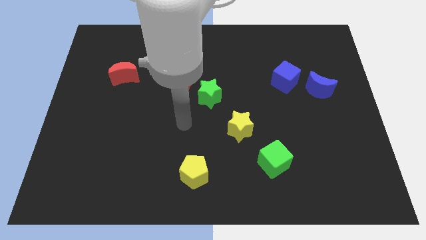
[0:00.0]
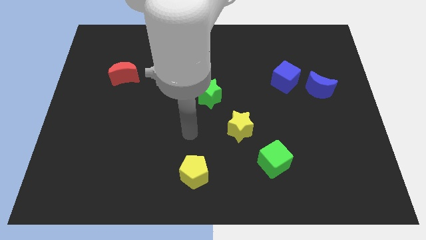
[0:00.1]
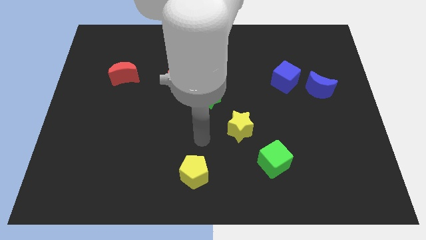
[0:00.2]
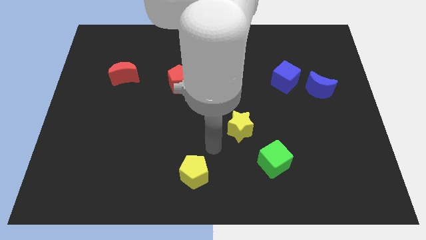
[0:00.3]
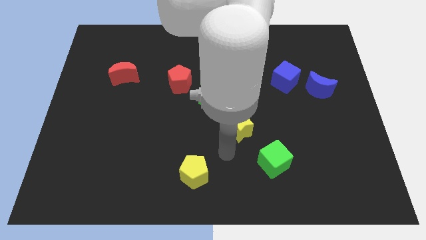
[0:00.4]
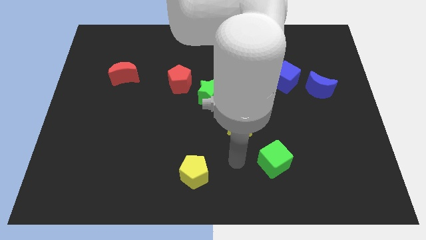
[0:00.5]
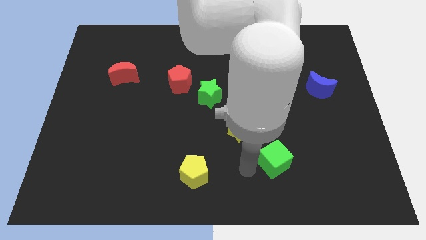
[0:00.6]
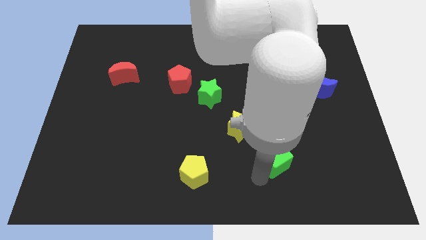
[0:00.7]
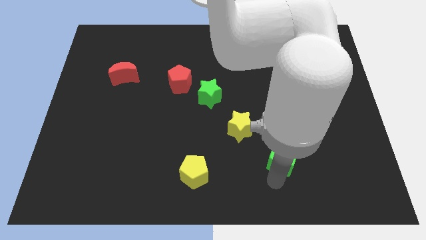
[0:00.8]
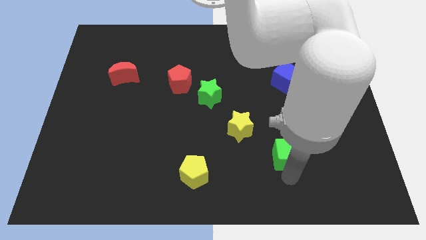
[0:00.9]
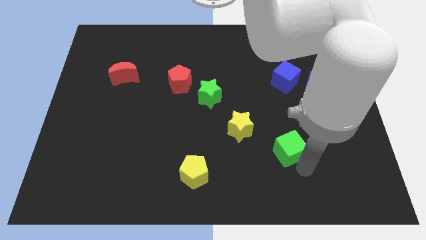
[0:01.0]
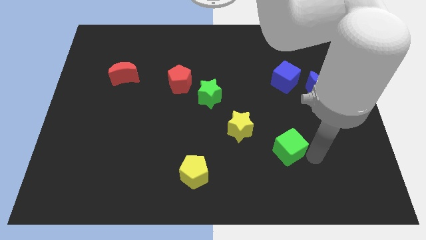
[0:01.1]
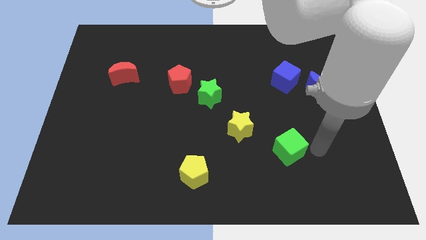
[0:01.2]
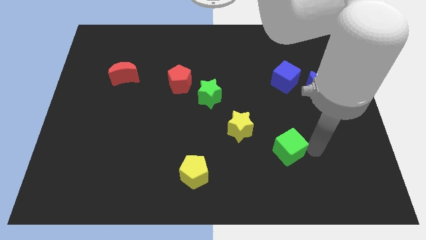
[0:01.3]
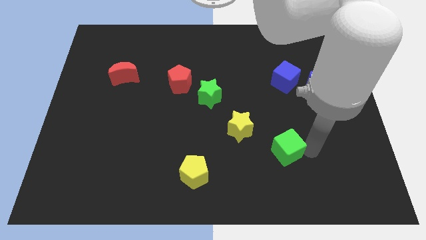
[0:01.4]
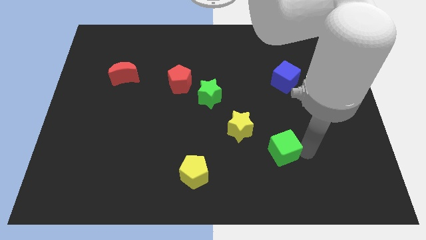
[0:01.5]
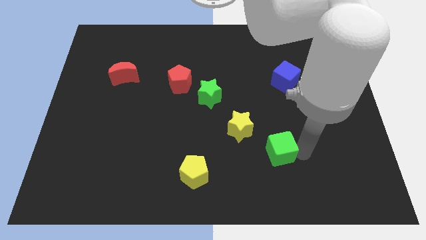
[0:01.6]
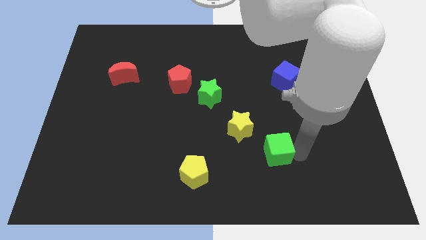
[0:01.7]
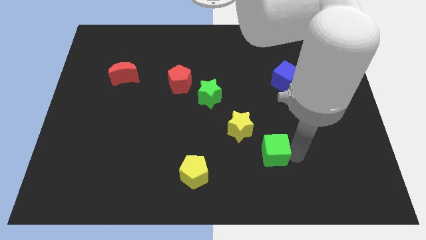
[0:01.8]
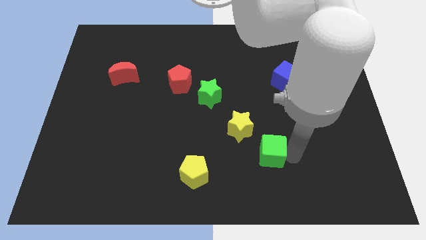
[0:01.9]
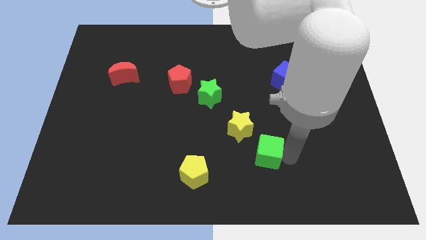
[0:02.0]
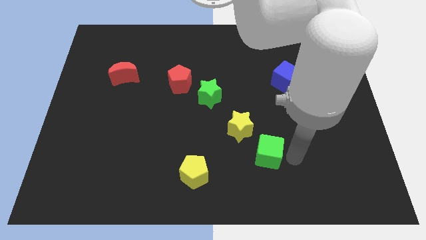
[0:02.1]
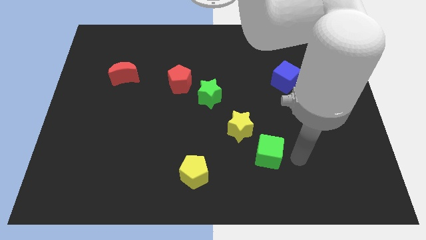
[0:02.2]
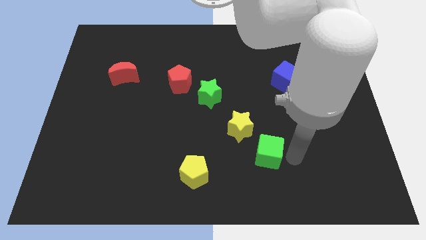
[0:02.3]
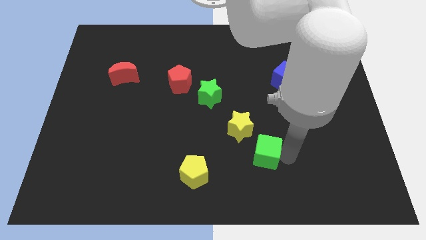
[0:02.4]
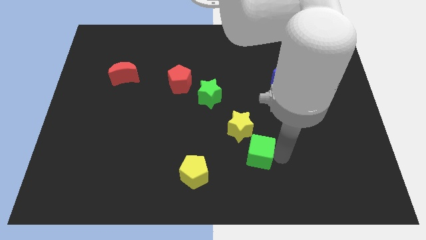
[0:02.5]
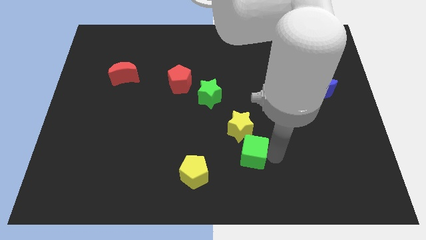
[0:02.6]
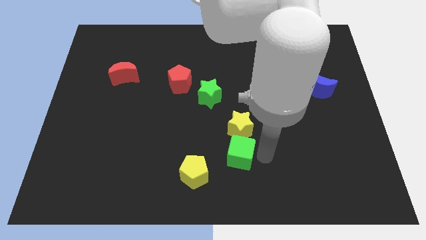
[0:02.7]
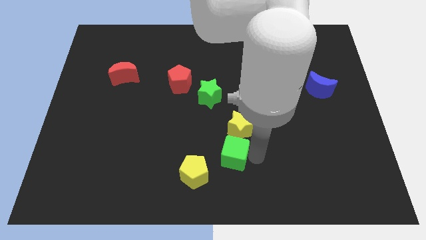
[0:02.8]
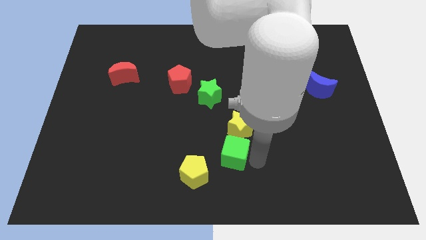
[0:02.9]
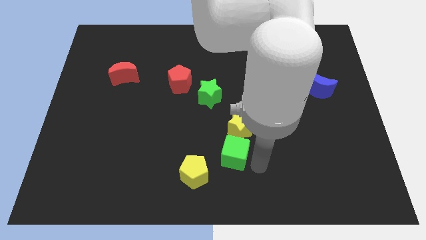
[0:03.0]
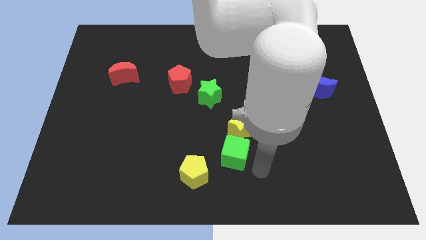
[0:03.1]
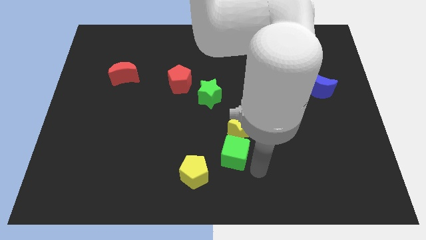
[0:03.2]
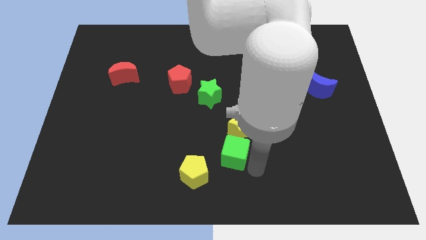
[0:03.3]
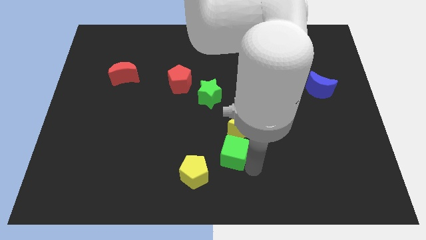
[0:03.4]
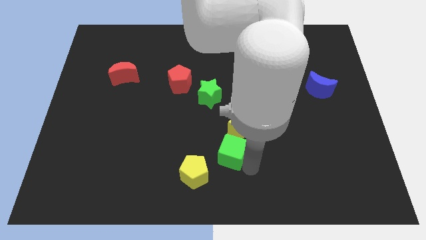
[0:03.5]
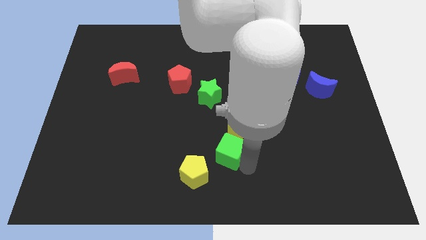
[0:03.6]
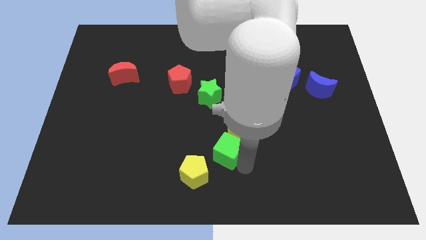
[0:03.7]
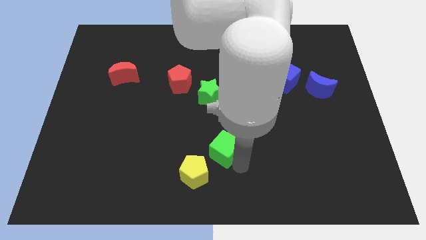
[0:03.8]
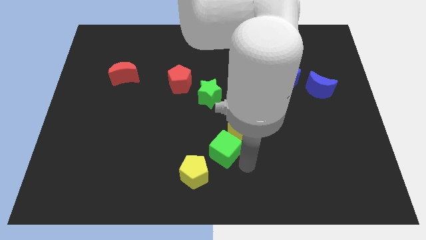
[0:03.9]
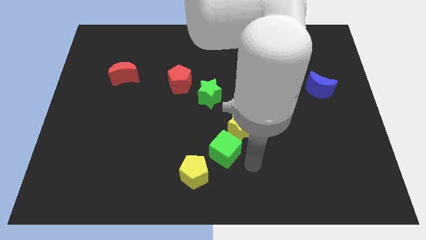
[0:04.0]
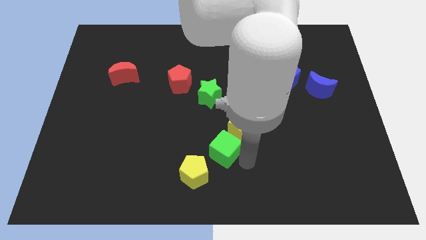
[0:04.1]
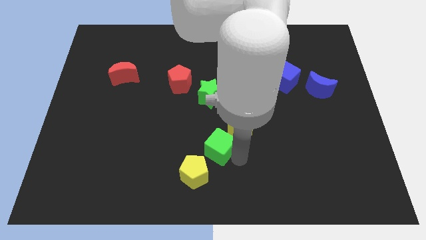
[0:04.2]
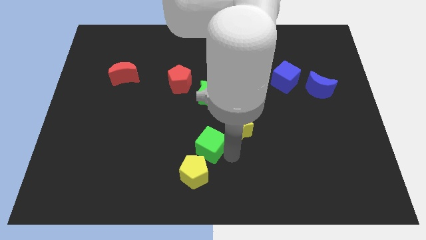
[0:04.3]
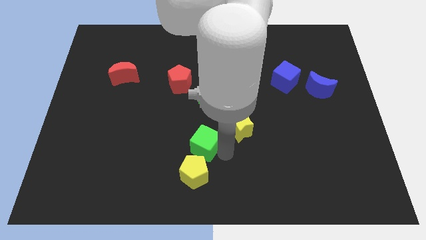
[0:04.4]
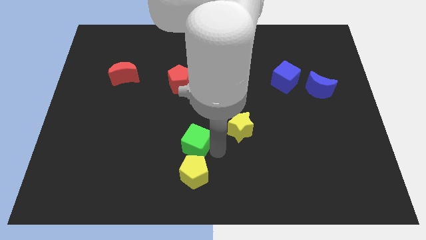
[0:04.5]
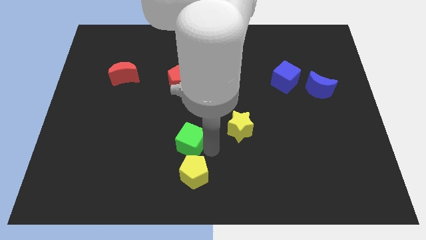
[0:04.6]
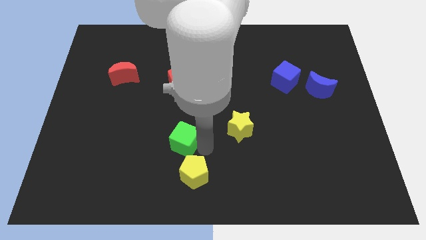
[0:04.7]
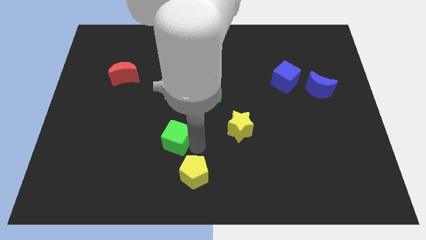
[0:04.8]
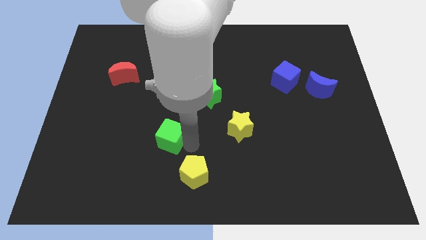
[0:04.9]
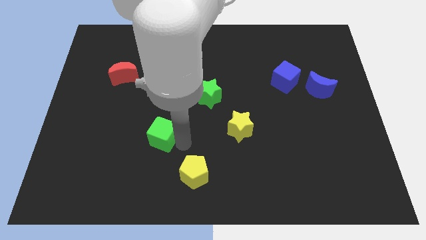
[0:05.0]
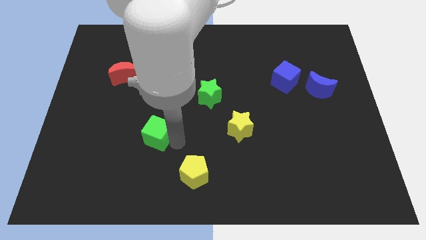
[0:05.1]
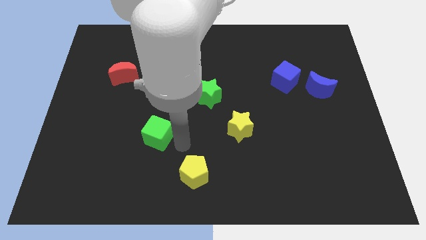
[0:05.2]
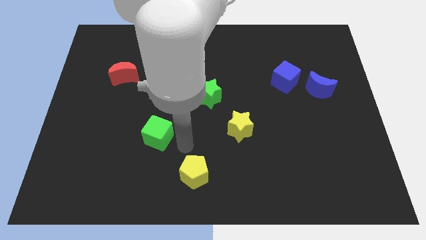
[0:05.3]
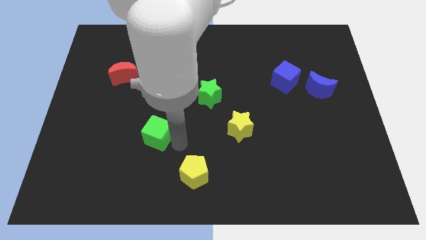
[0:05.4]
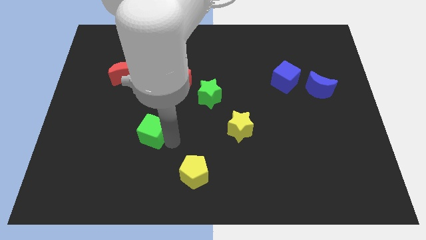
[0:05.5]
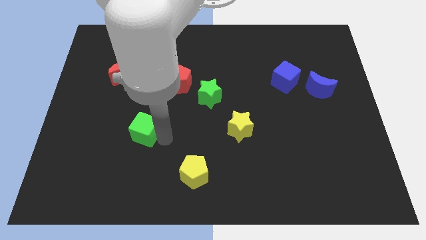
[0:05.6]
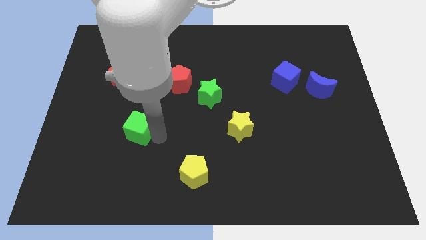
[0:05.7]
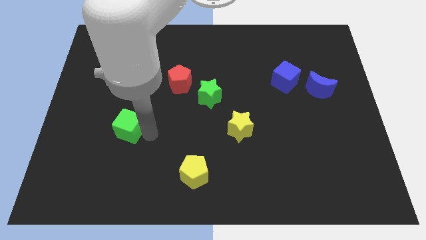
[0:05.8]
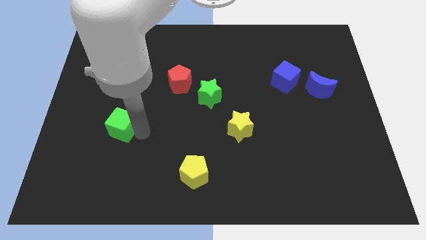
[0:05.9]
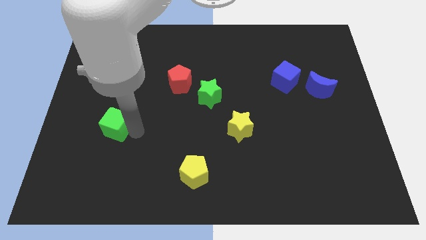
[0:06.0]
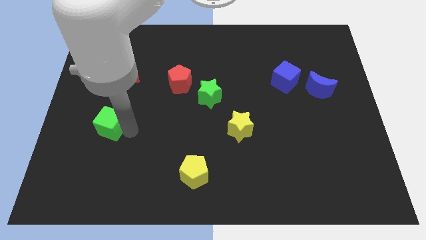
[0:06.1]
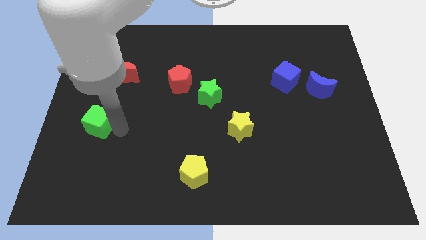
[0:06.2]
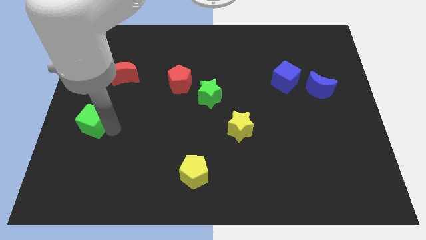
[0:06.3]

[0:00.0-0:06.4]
slide the green cube to the center left
